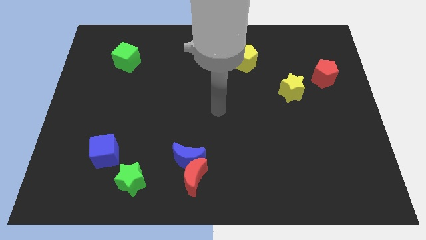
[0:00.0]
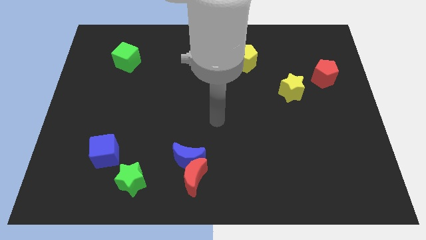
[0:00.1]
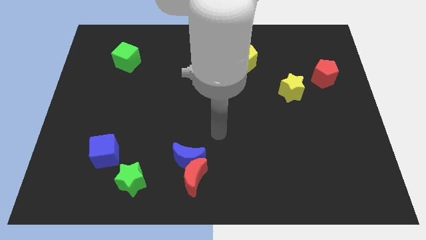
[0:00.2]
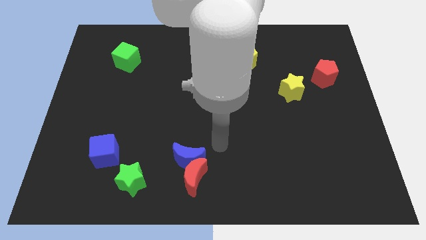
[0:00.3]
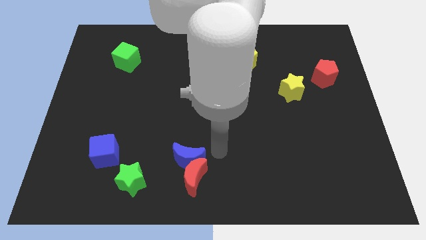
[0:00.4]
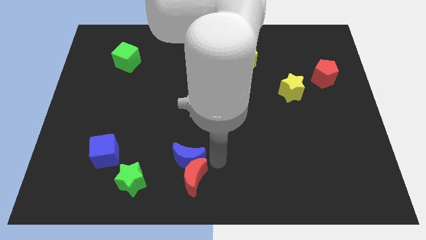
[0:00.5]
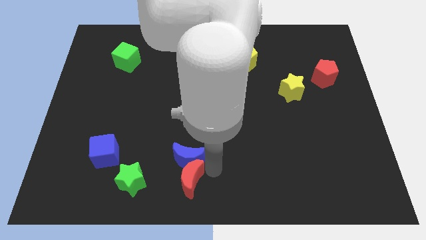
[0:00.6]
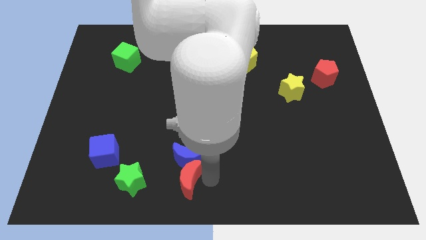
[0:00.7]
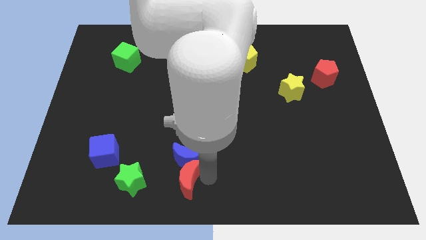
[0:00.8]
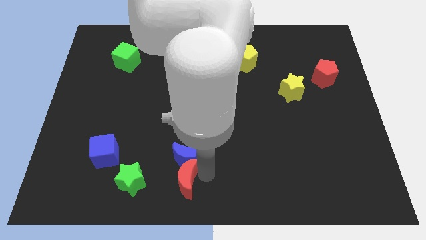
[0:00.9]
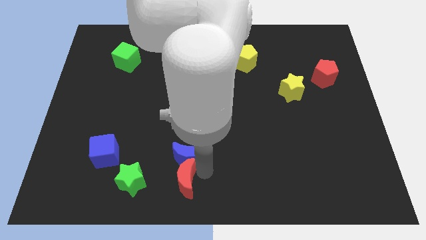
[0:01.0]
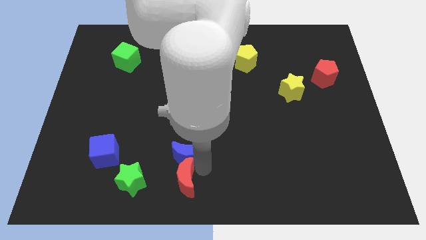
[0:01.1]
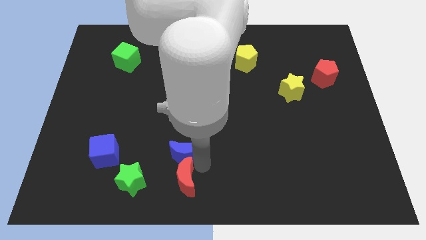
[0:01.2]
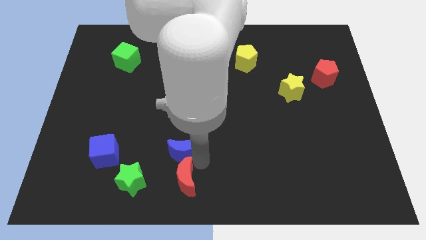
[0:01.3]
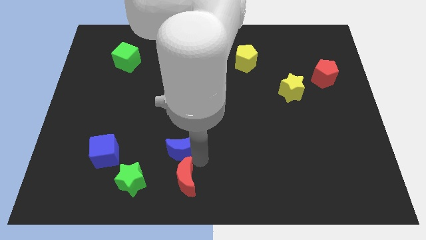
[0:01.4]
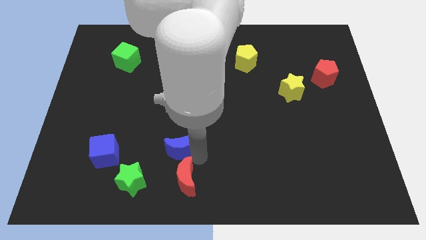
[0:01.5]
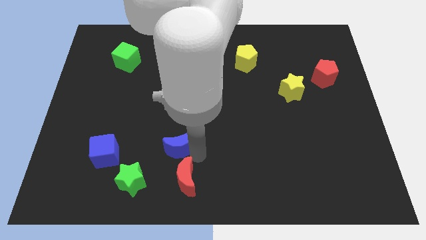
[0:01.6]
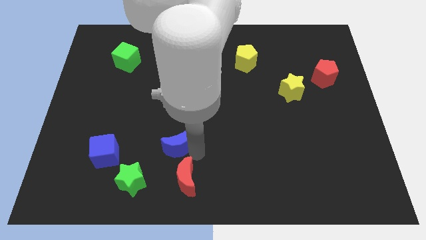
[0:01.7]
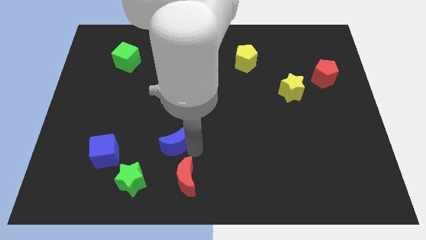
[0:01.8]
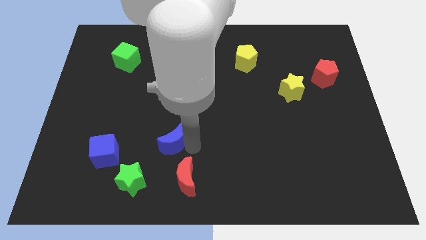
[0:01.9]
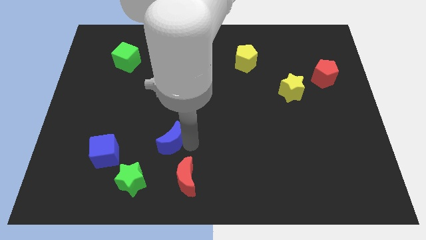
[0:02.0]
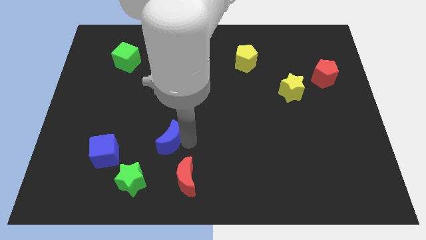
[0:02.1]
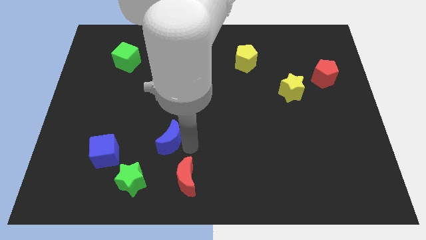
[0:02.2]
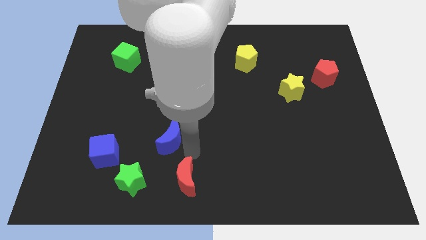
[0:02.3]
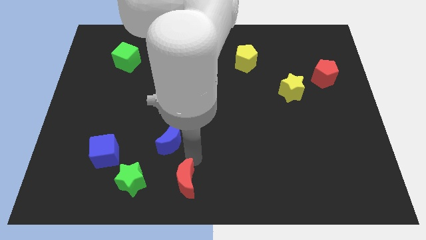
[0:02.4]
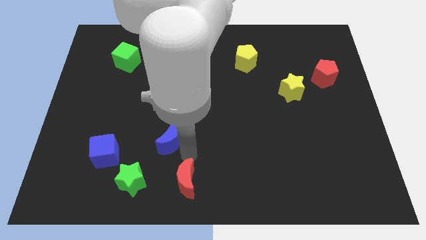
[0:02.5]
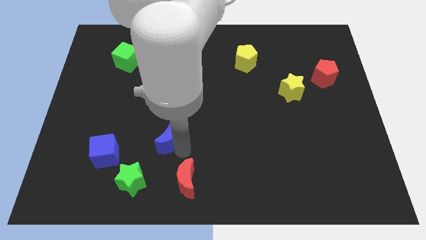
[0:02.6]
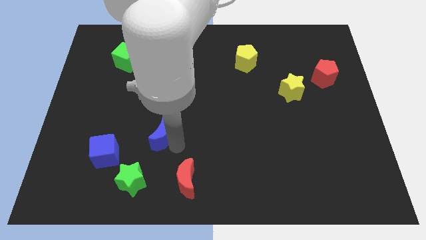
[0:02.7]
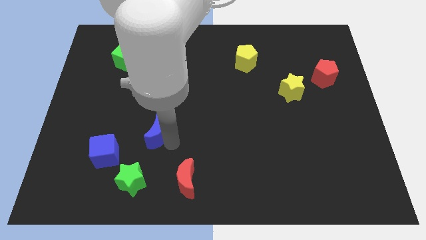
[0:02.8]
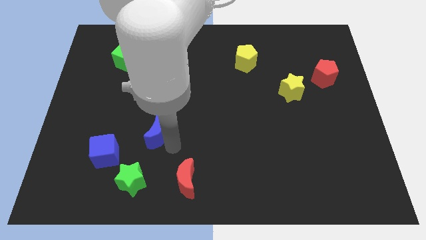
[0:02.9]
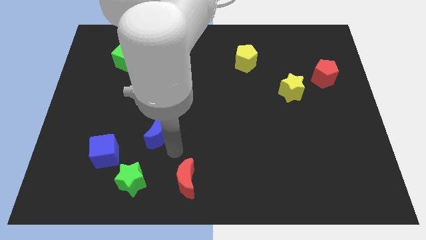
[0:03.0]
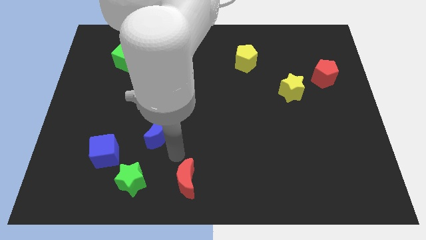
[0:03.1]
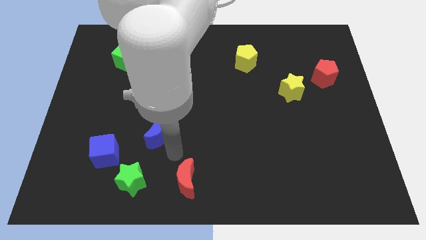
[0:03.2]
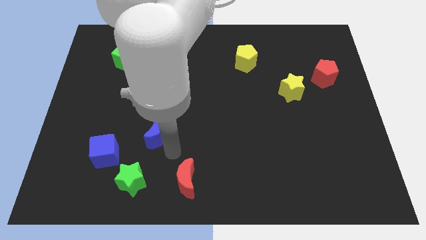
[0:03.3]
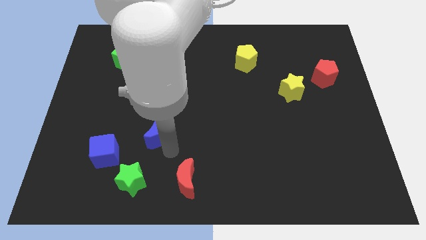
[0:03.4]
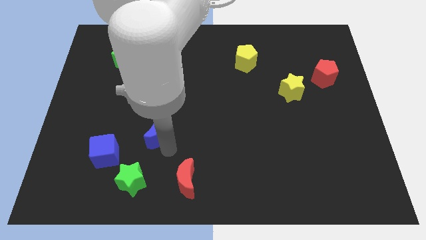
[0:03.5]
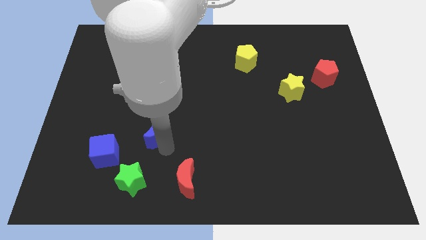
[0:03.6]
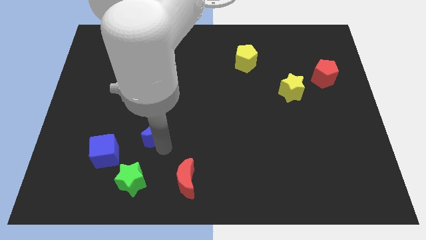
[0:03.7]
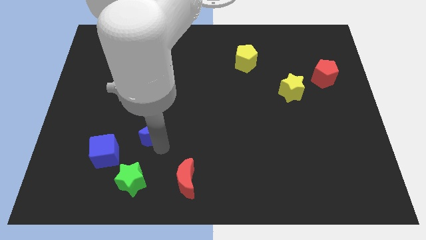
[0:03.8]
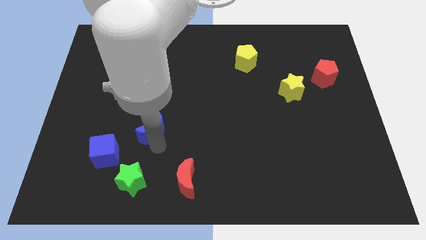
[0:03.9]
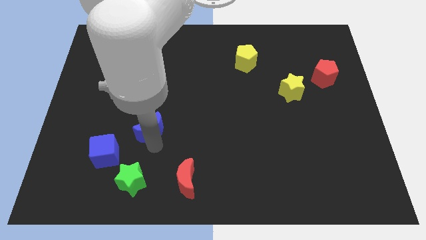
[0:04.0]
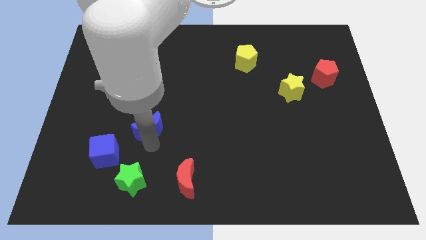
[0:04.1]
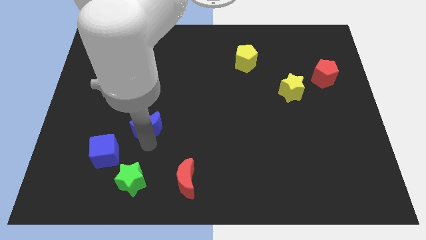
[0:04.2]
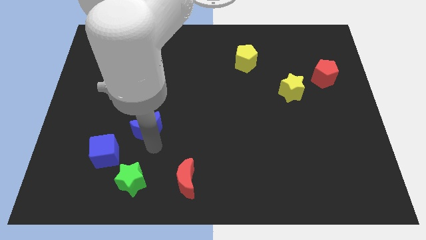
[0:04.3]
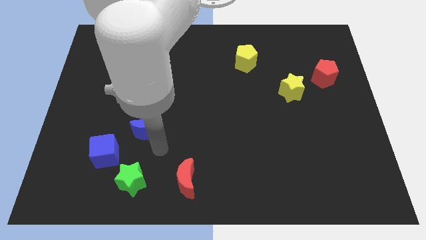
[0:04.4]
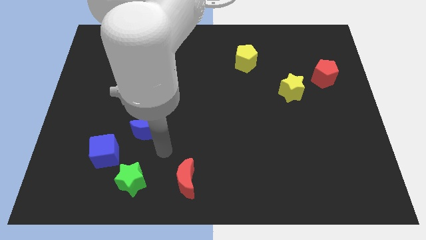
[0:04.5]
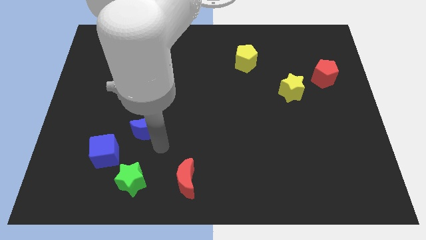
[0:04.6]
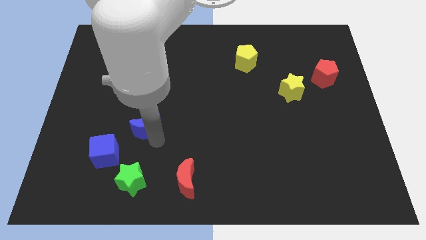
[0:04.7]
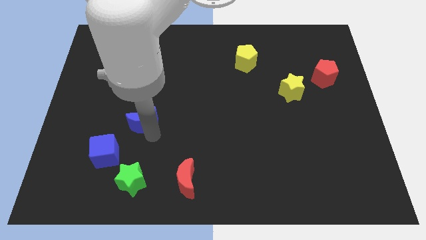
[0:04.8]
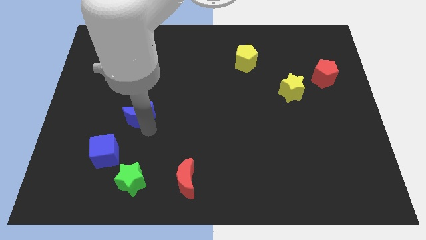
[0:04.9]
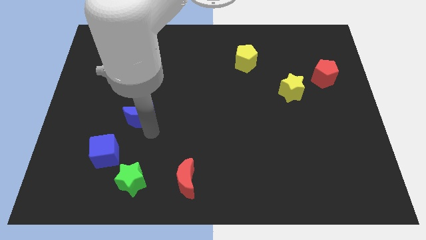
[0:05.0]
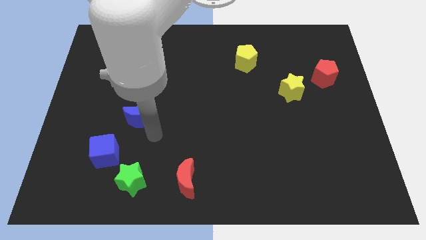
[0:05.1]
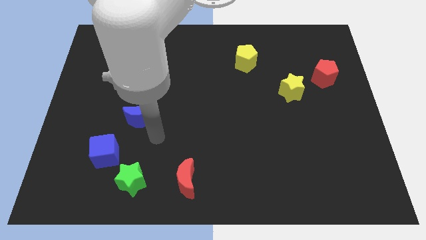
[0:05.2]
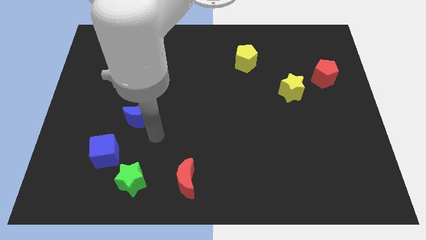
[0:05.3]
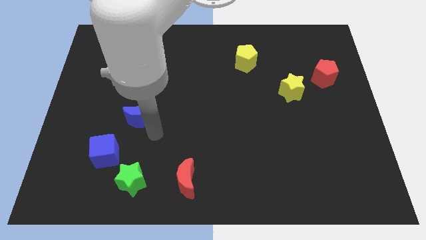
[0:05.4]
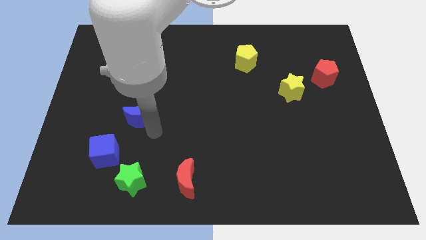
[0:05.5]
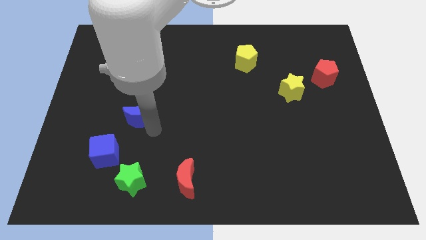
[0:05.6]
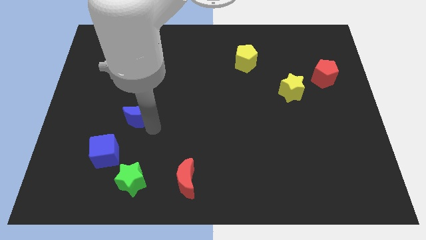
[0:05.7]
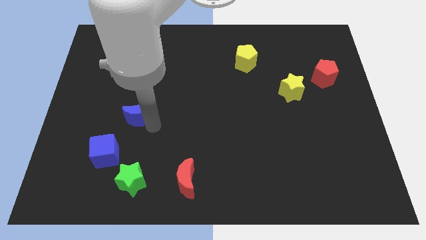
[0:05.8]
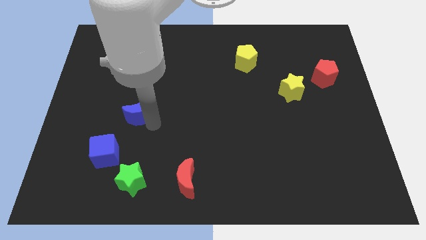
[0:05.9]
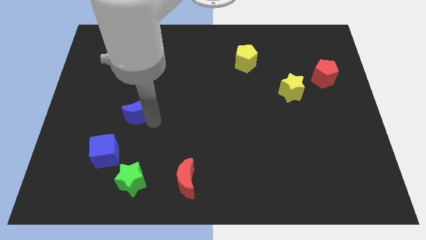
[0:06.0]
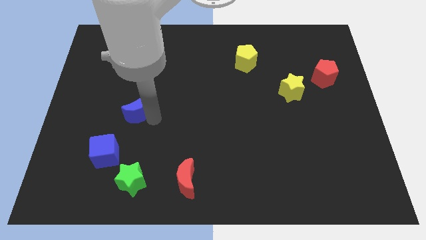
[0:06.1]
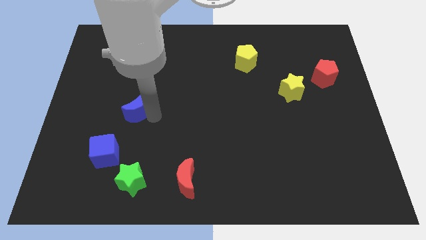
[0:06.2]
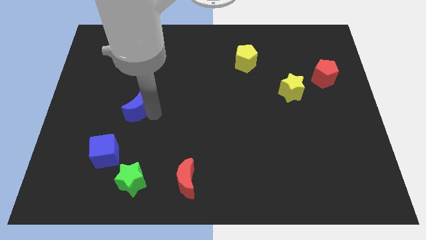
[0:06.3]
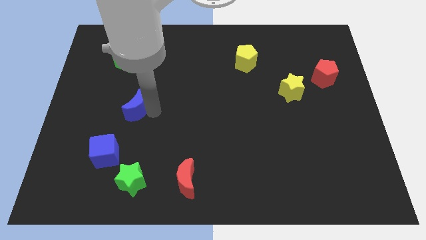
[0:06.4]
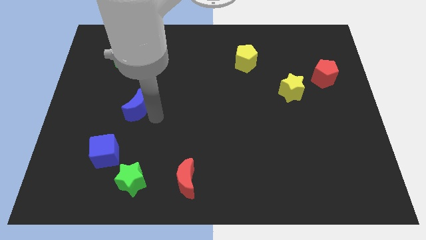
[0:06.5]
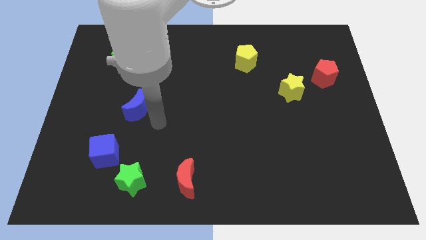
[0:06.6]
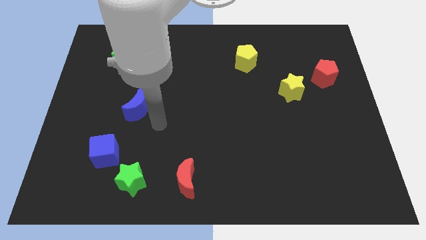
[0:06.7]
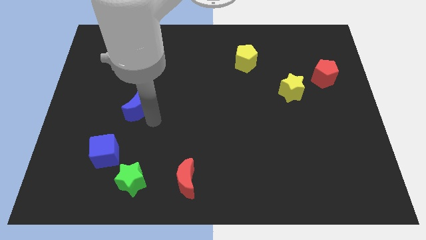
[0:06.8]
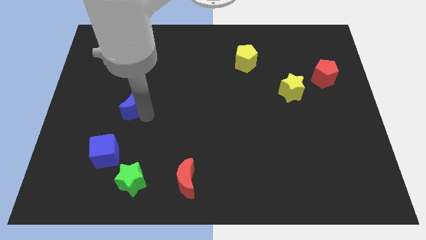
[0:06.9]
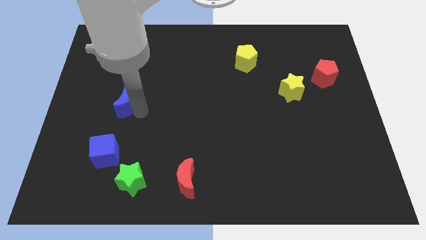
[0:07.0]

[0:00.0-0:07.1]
push the blue moon diagonally up and to the left

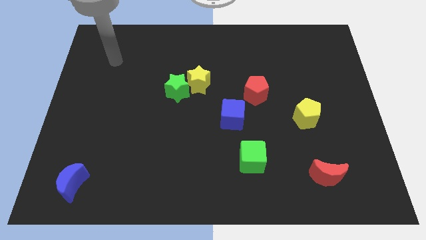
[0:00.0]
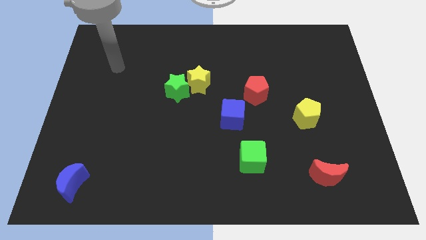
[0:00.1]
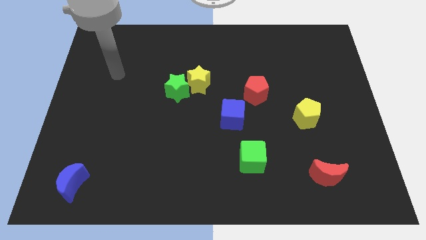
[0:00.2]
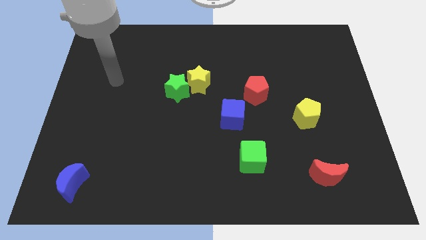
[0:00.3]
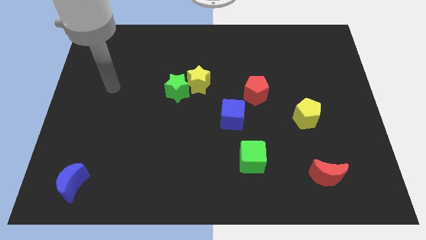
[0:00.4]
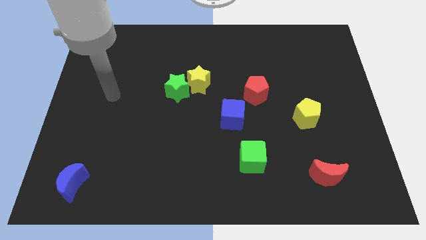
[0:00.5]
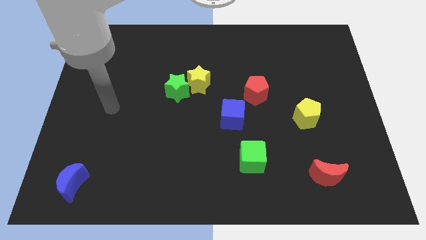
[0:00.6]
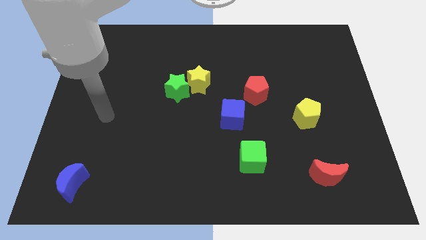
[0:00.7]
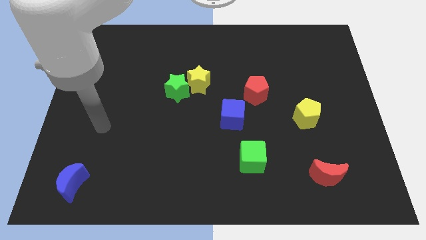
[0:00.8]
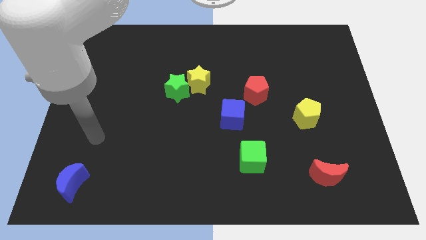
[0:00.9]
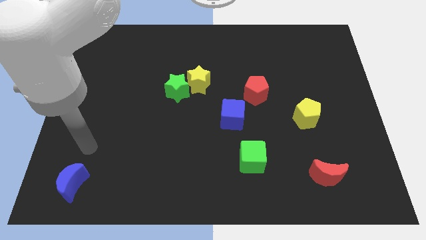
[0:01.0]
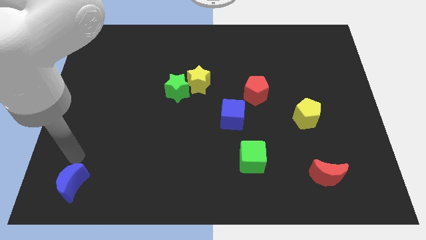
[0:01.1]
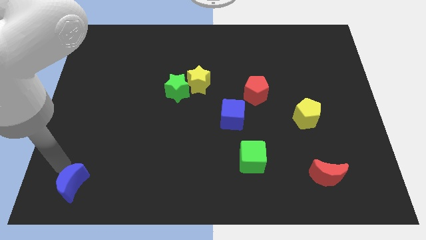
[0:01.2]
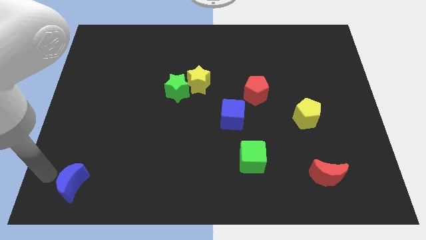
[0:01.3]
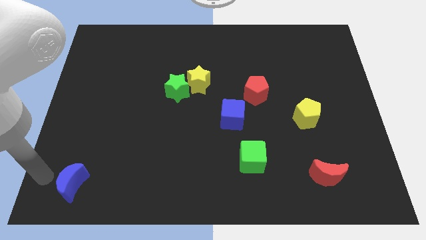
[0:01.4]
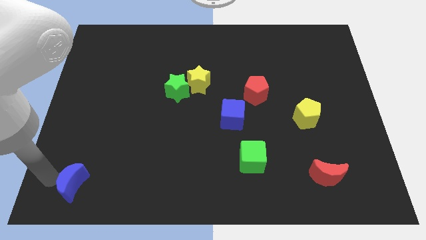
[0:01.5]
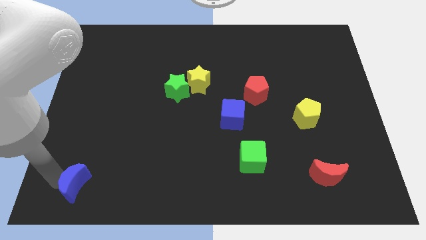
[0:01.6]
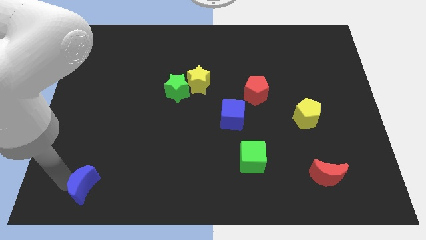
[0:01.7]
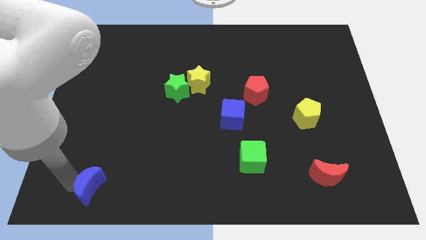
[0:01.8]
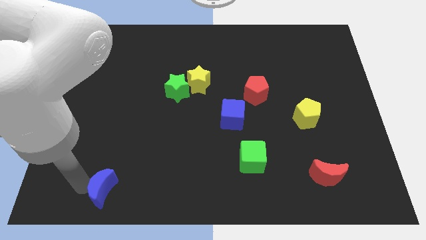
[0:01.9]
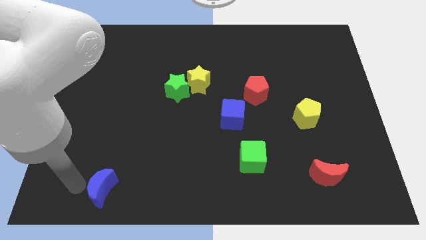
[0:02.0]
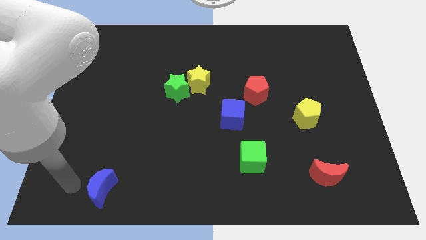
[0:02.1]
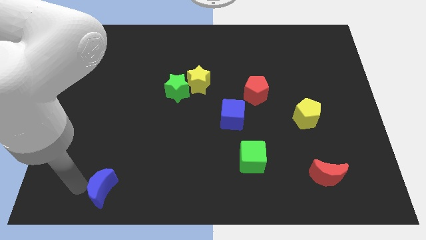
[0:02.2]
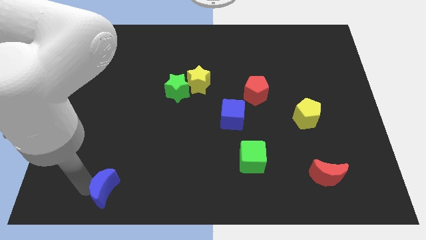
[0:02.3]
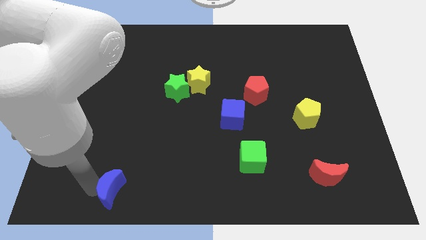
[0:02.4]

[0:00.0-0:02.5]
slide the blue moon a little to the right
